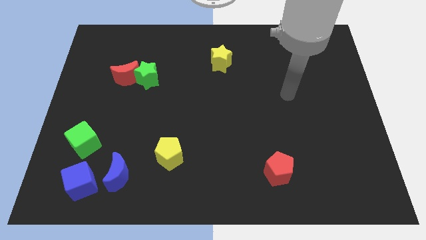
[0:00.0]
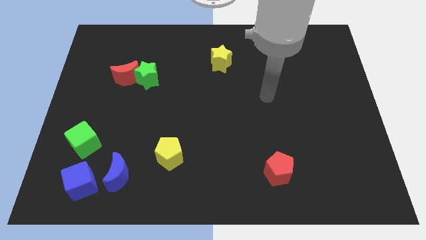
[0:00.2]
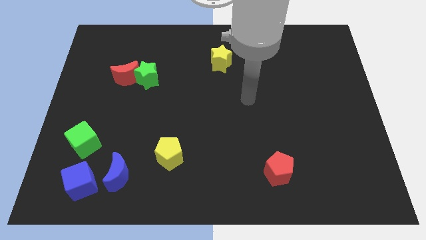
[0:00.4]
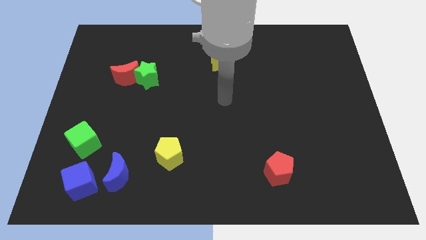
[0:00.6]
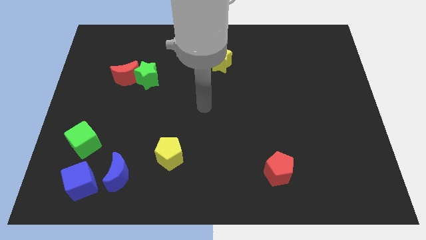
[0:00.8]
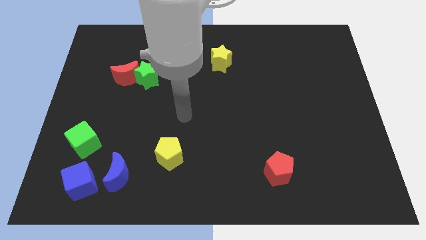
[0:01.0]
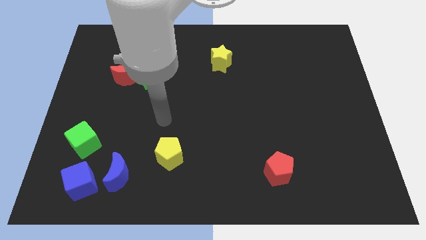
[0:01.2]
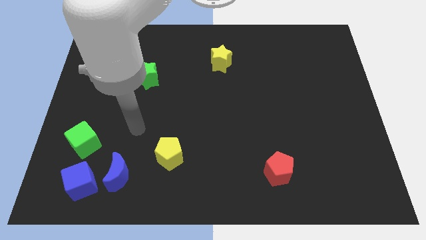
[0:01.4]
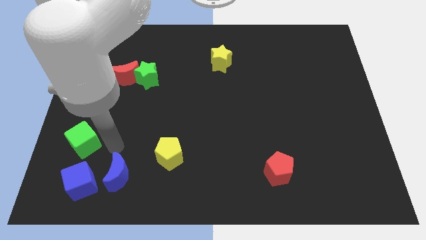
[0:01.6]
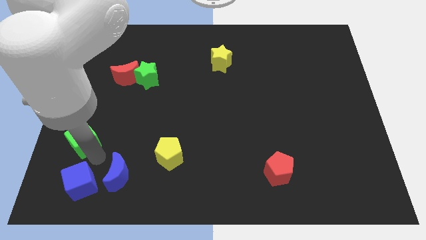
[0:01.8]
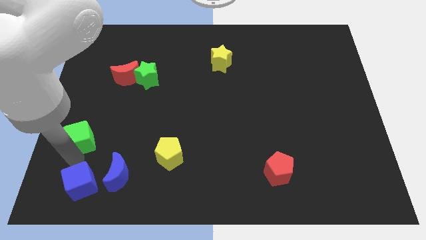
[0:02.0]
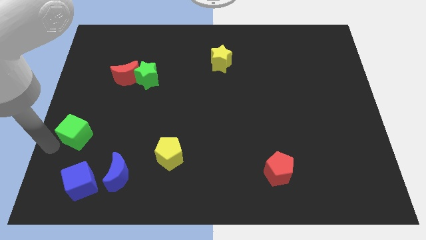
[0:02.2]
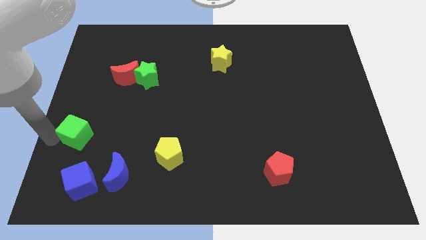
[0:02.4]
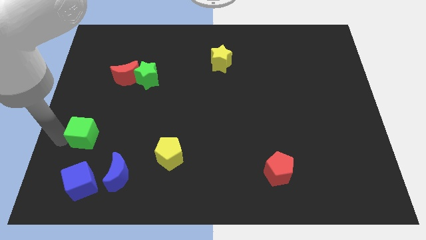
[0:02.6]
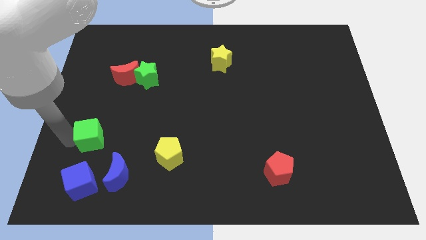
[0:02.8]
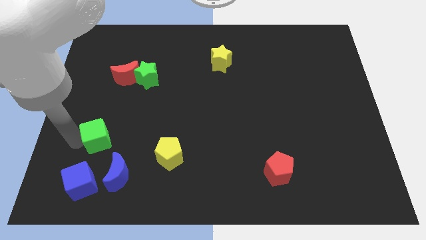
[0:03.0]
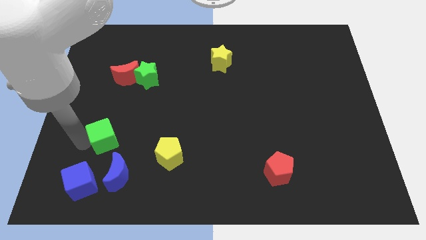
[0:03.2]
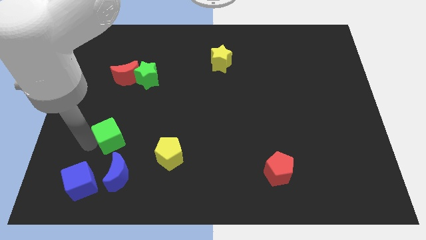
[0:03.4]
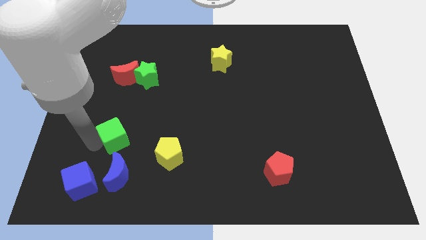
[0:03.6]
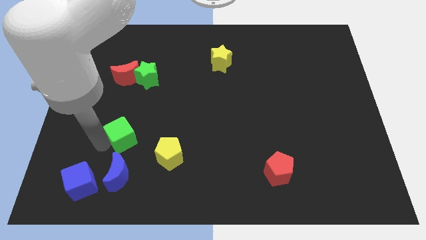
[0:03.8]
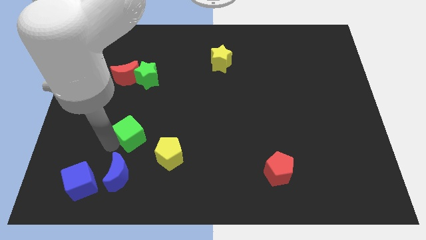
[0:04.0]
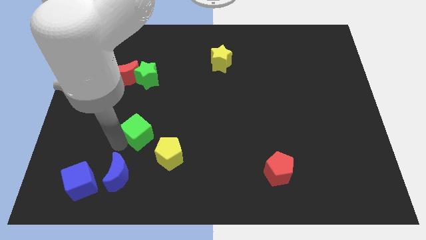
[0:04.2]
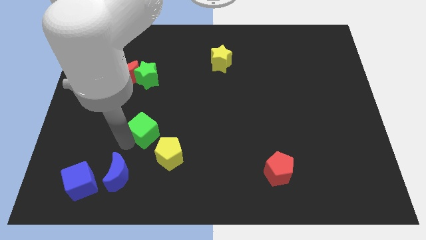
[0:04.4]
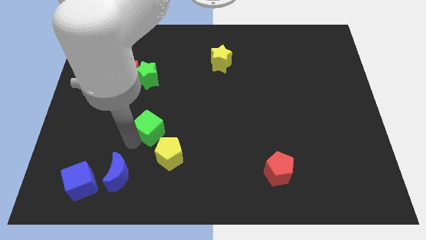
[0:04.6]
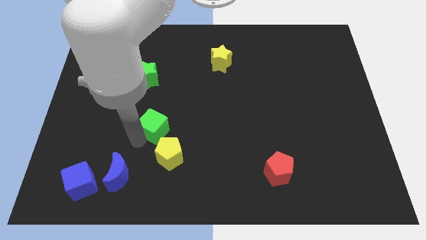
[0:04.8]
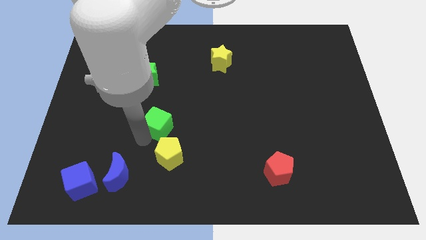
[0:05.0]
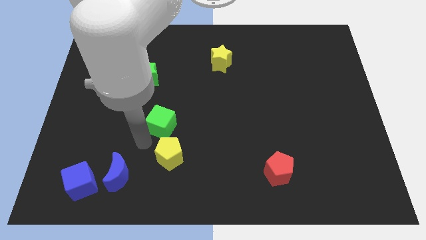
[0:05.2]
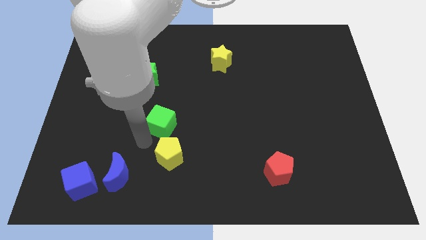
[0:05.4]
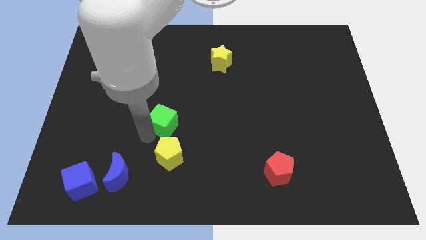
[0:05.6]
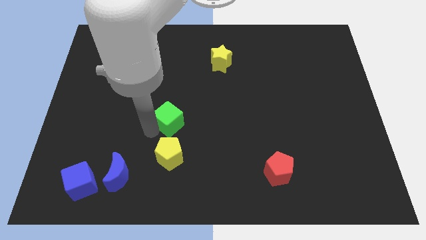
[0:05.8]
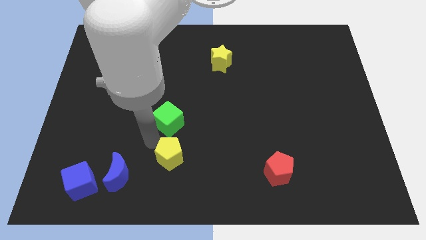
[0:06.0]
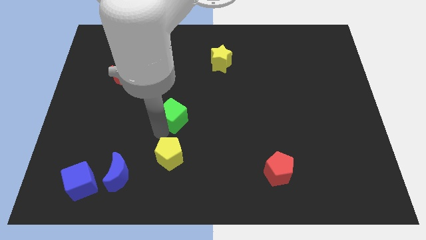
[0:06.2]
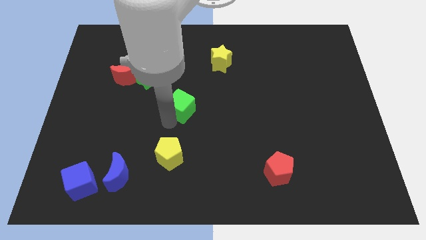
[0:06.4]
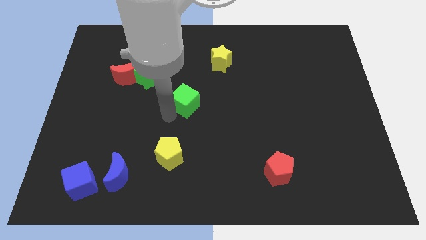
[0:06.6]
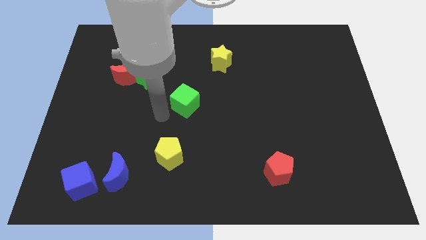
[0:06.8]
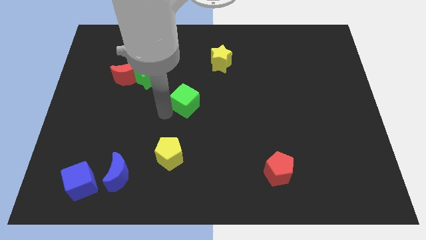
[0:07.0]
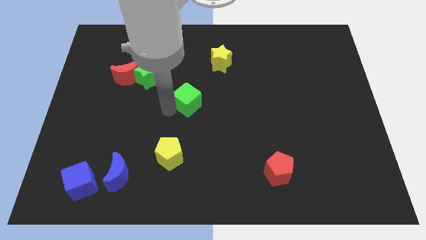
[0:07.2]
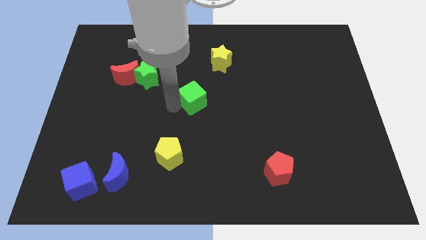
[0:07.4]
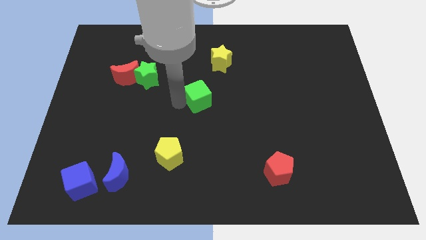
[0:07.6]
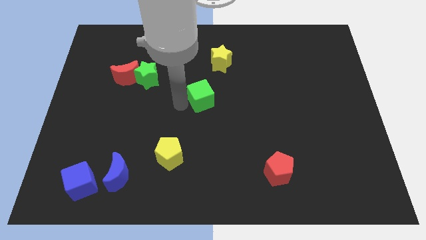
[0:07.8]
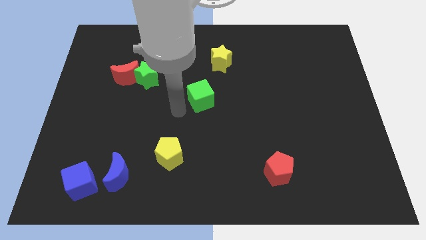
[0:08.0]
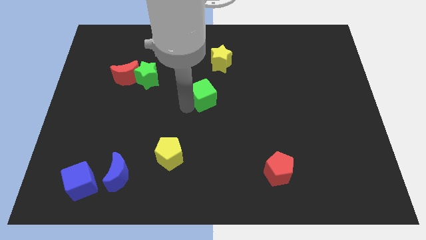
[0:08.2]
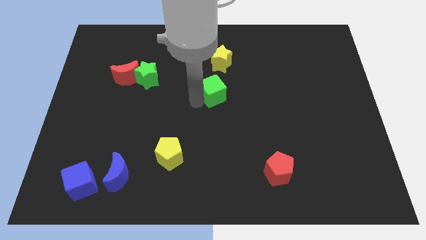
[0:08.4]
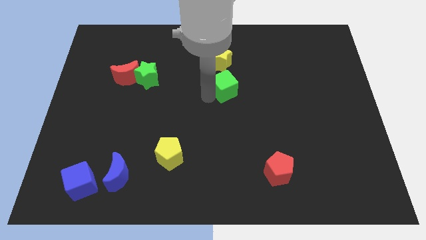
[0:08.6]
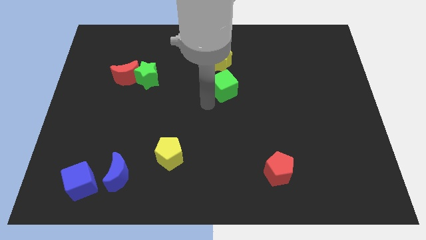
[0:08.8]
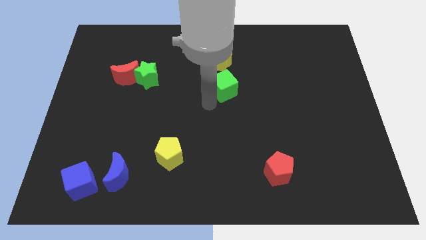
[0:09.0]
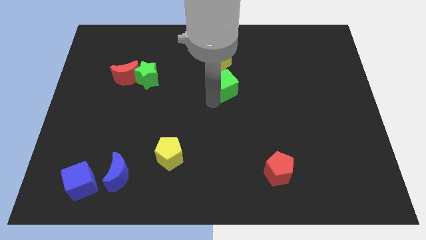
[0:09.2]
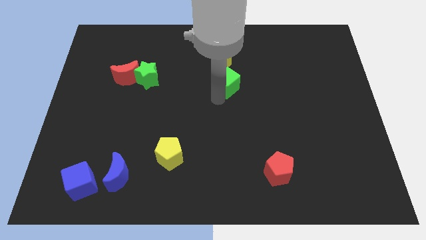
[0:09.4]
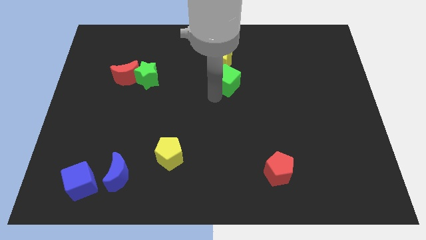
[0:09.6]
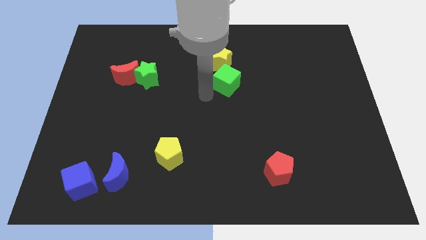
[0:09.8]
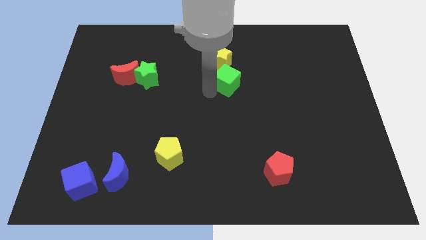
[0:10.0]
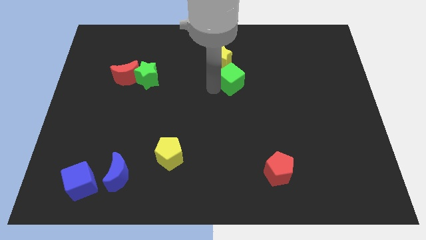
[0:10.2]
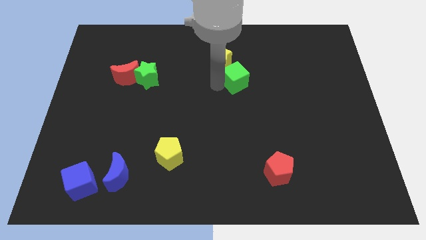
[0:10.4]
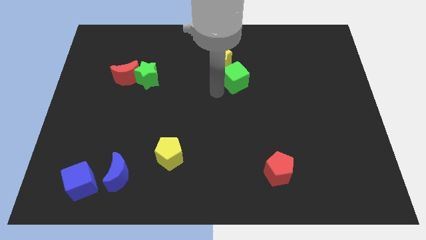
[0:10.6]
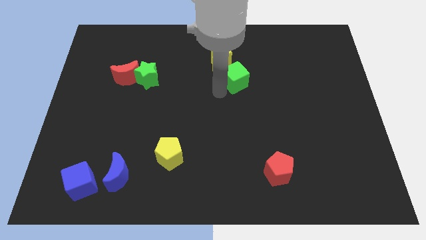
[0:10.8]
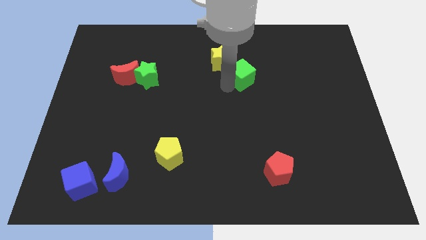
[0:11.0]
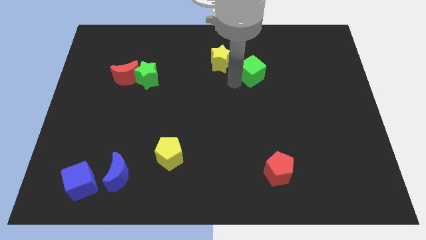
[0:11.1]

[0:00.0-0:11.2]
move the green cube right of the yellow star

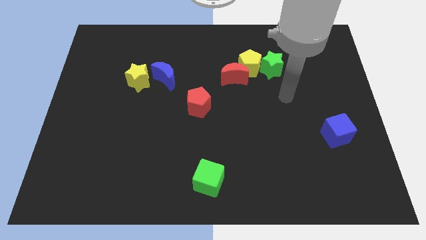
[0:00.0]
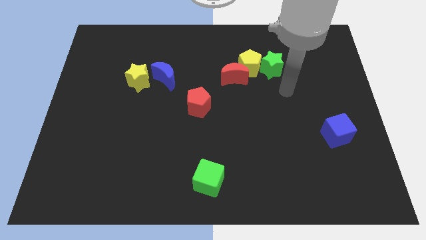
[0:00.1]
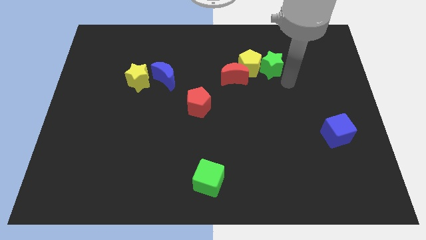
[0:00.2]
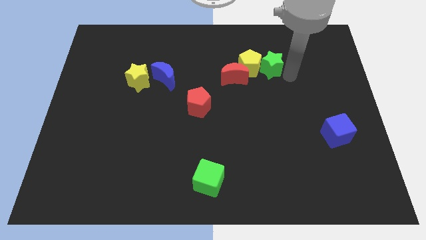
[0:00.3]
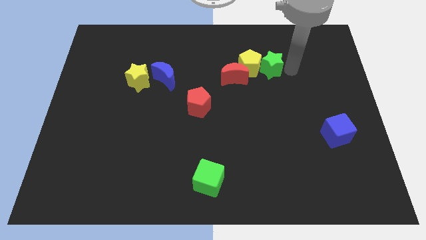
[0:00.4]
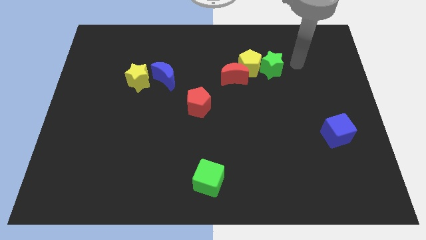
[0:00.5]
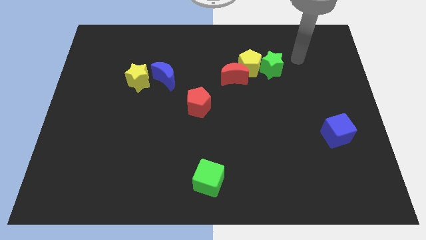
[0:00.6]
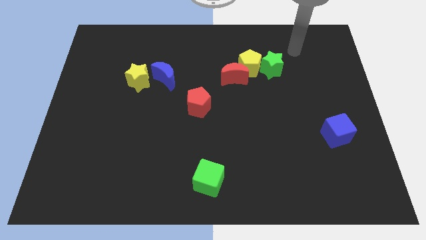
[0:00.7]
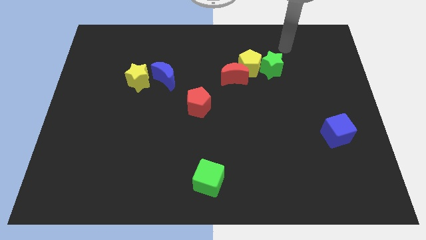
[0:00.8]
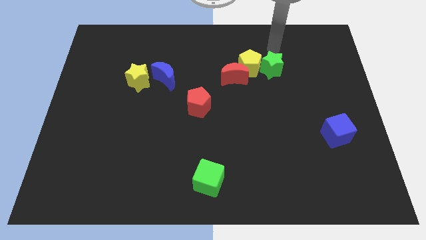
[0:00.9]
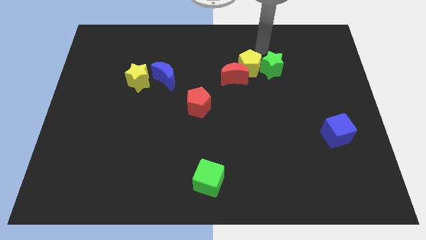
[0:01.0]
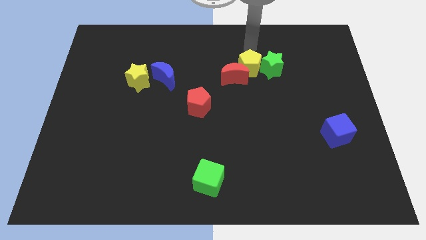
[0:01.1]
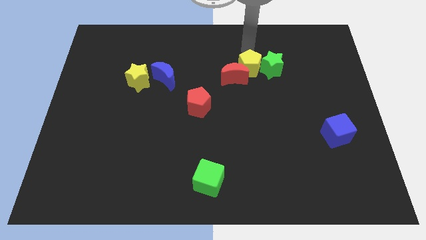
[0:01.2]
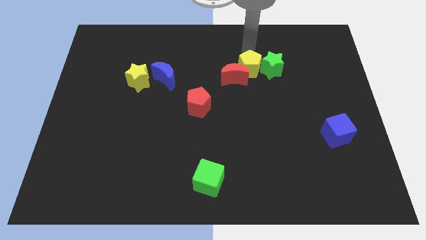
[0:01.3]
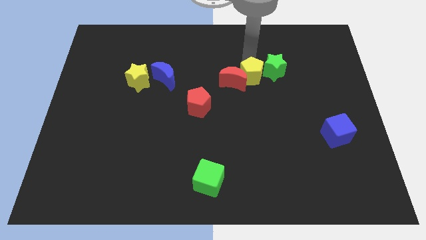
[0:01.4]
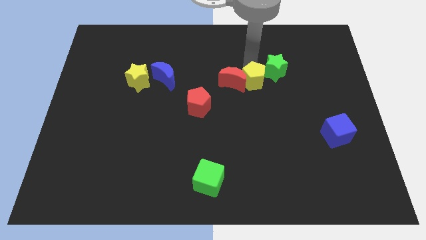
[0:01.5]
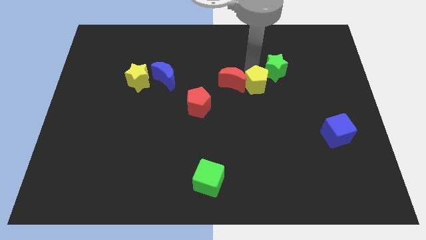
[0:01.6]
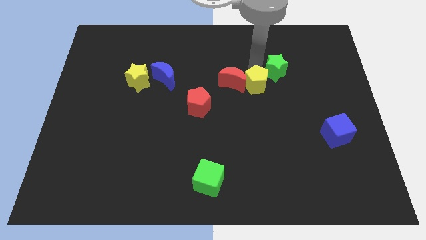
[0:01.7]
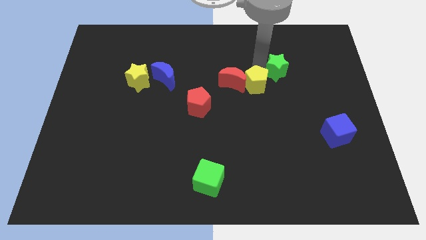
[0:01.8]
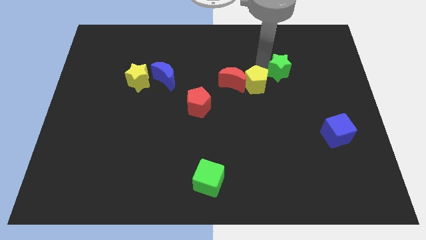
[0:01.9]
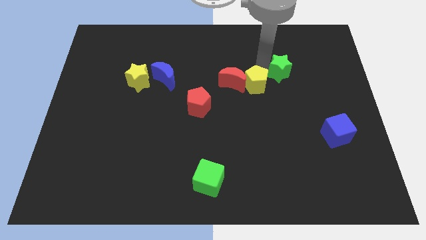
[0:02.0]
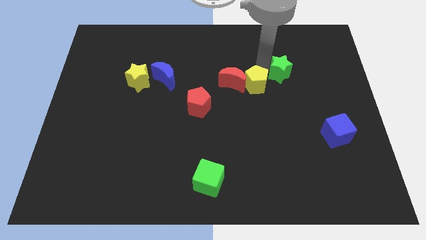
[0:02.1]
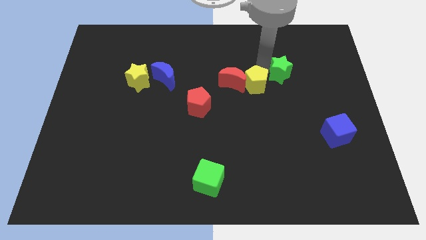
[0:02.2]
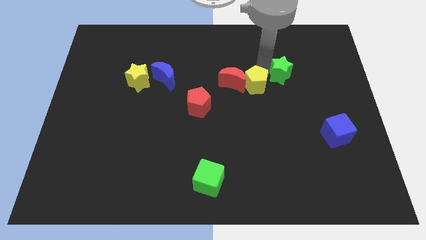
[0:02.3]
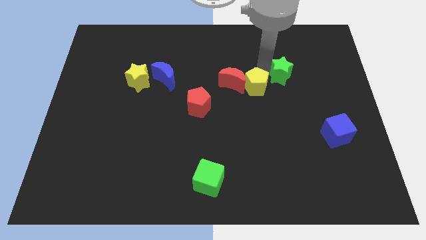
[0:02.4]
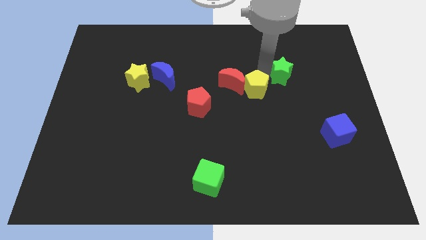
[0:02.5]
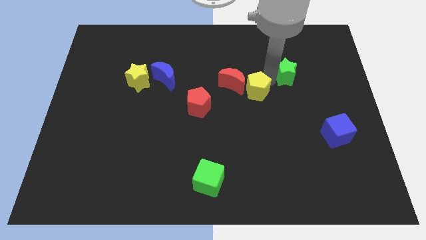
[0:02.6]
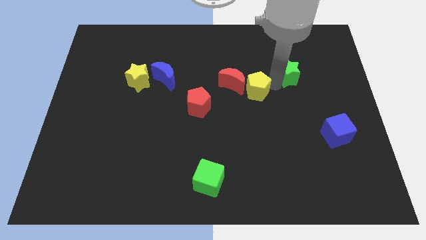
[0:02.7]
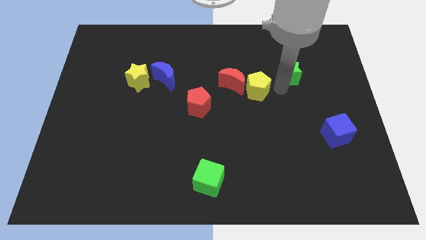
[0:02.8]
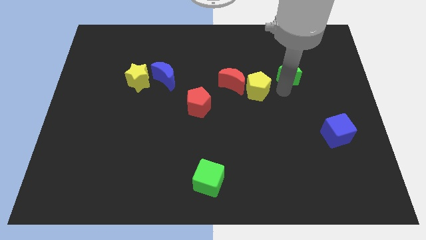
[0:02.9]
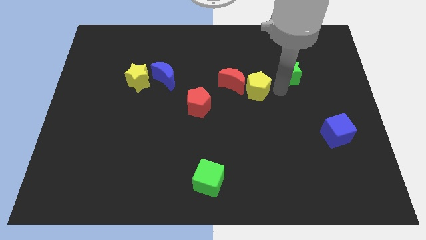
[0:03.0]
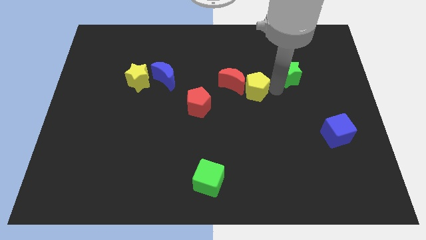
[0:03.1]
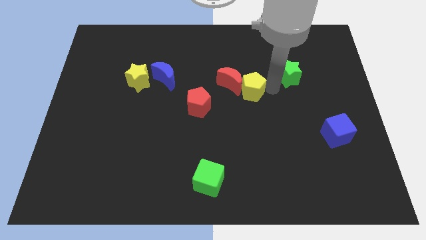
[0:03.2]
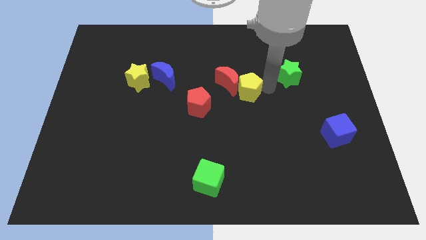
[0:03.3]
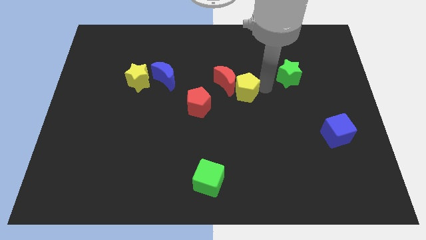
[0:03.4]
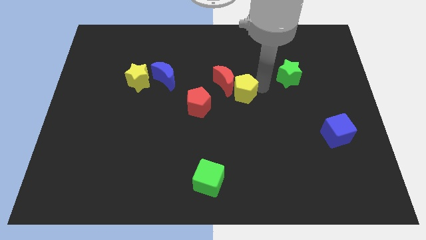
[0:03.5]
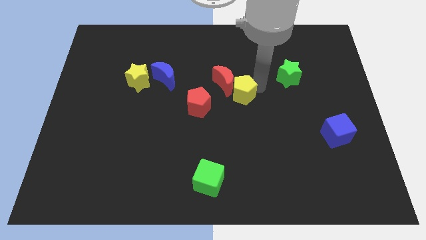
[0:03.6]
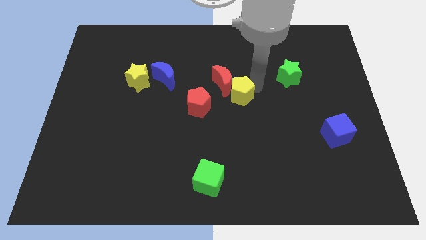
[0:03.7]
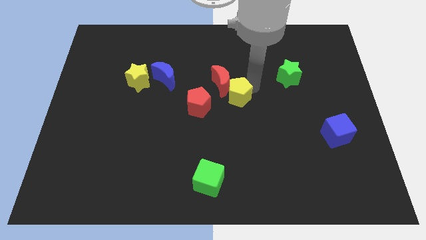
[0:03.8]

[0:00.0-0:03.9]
push the yellow pentagon to the top right of the red pentagon
